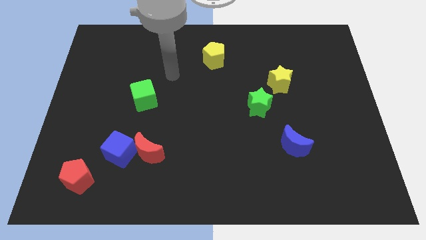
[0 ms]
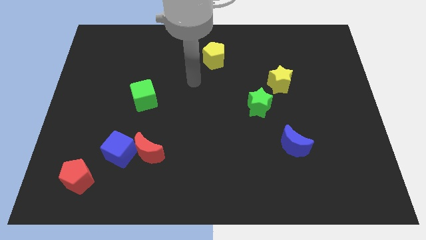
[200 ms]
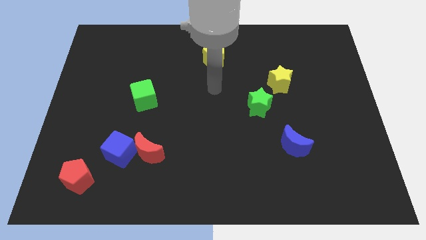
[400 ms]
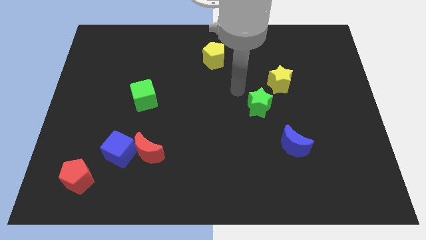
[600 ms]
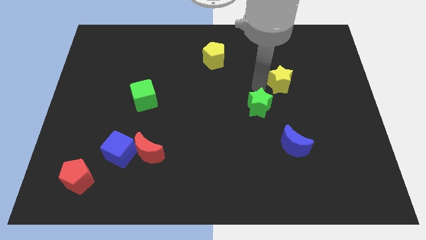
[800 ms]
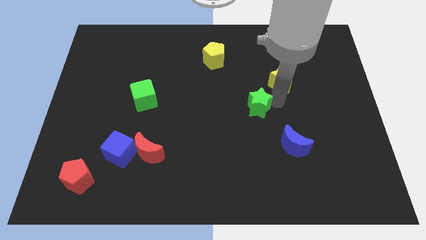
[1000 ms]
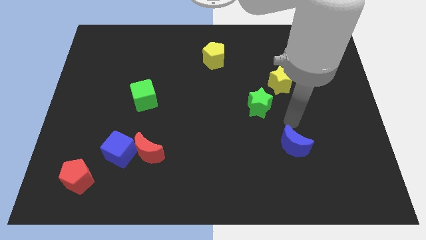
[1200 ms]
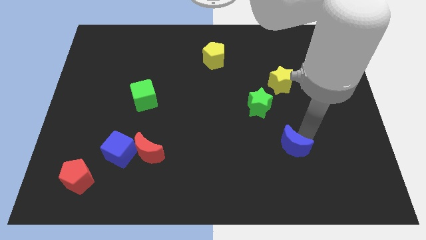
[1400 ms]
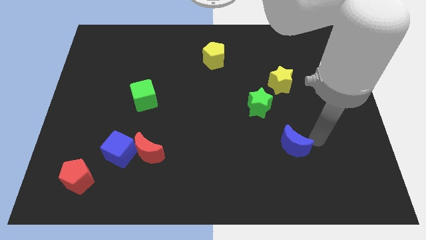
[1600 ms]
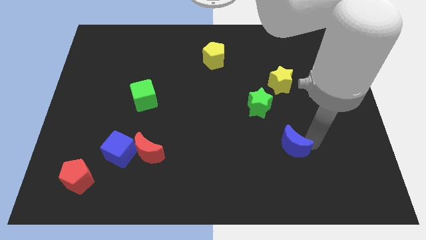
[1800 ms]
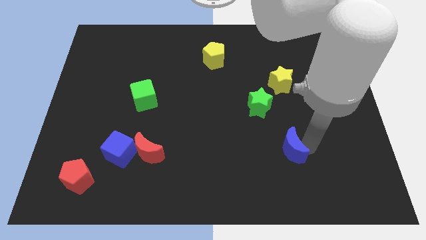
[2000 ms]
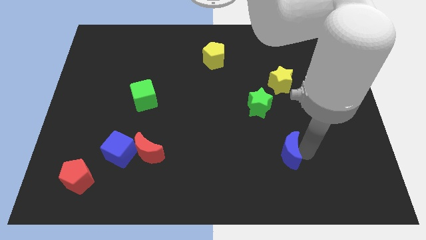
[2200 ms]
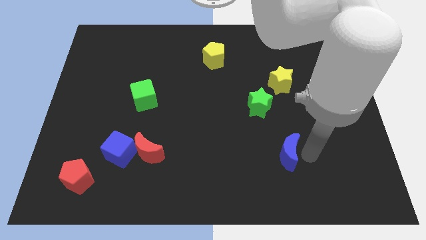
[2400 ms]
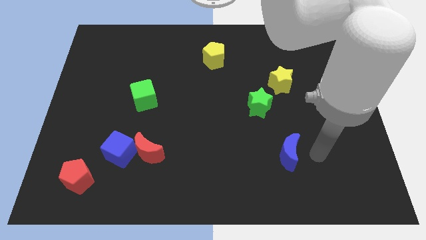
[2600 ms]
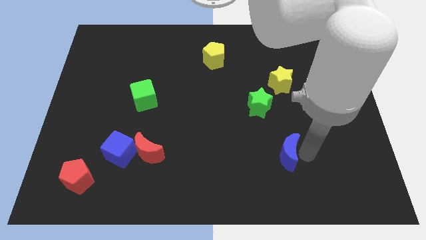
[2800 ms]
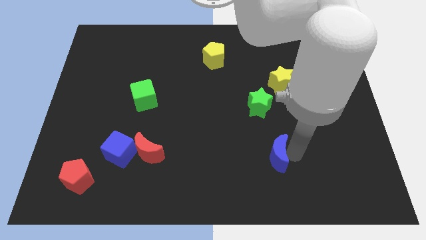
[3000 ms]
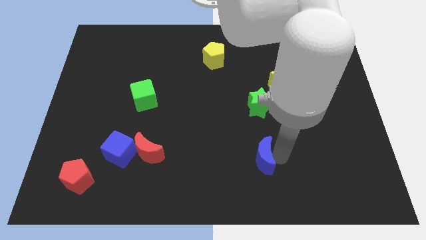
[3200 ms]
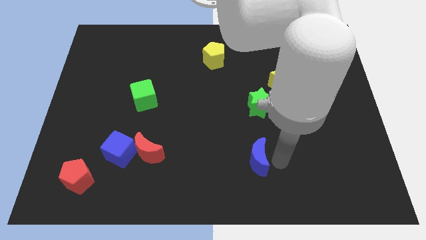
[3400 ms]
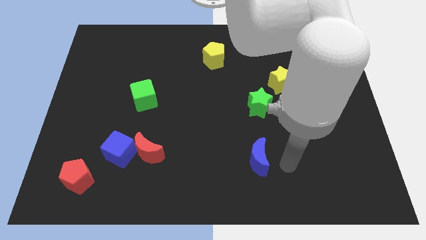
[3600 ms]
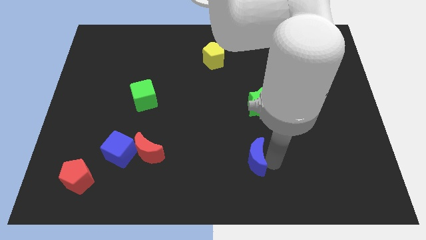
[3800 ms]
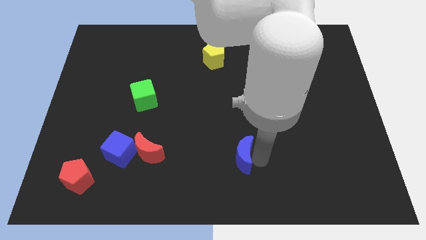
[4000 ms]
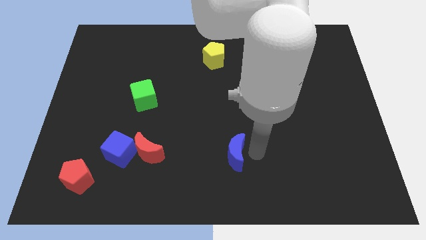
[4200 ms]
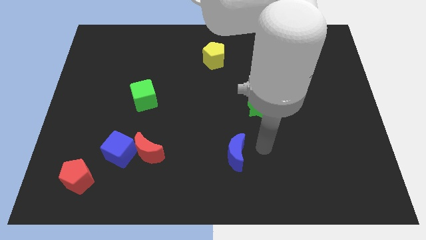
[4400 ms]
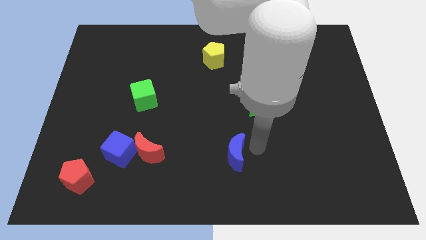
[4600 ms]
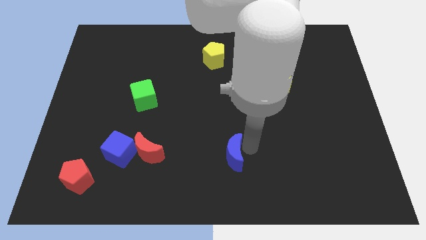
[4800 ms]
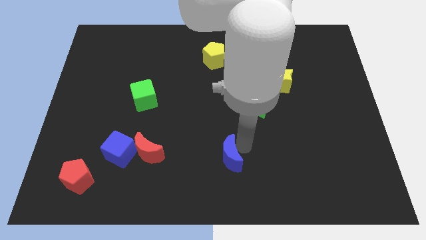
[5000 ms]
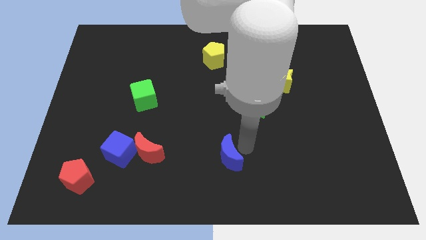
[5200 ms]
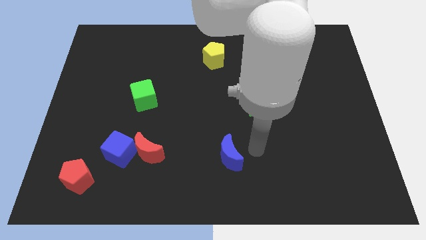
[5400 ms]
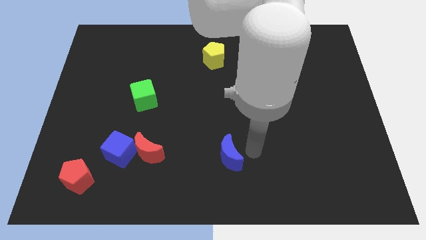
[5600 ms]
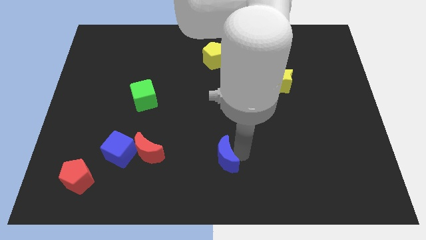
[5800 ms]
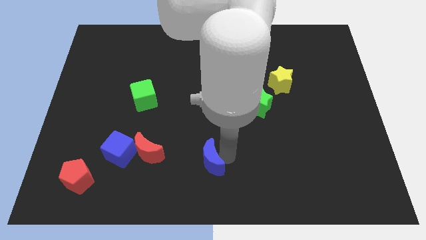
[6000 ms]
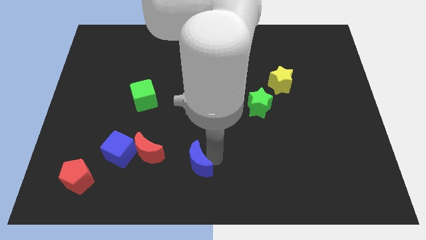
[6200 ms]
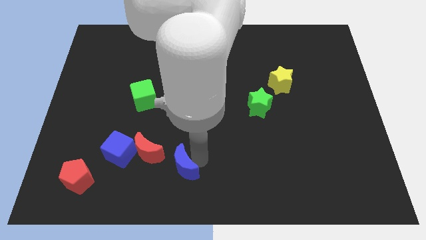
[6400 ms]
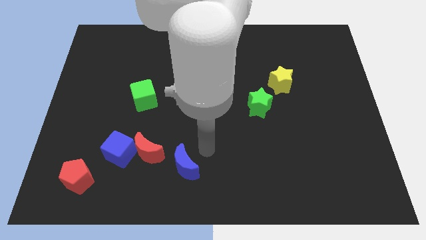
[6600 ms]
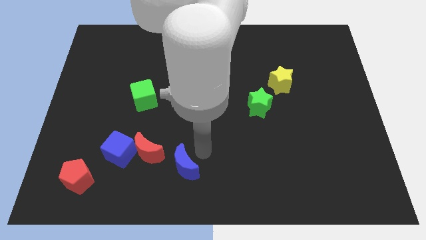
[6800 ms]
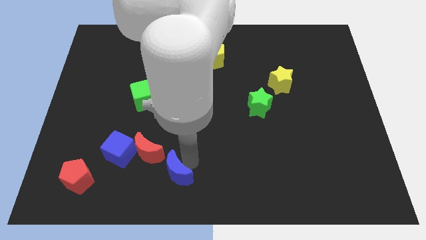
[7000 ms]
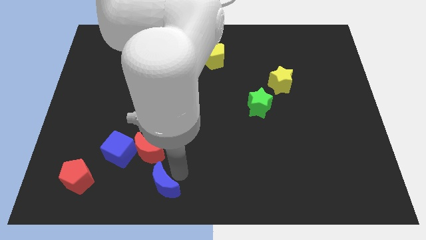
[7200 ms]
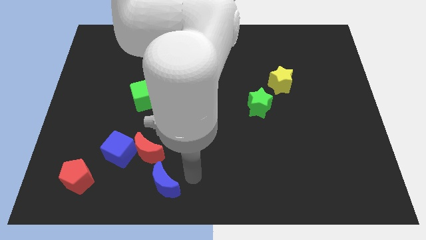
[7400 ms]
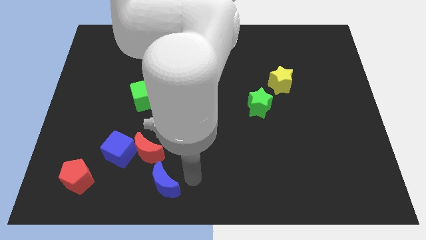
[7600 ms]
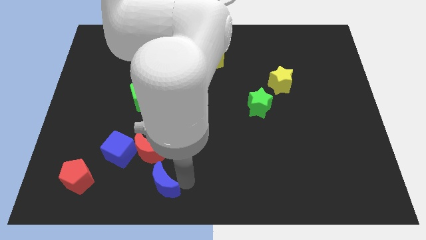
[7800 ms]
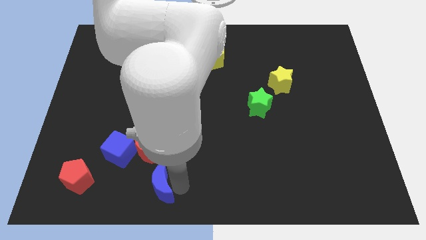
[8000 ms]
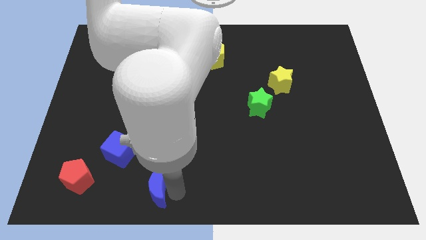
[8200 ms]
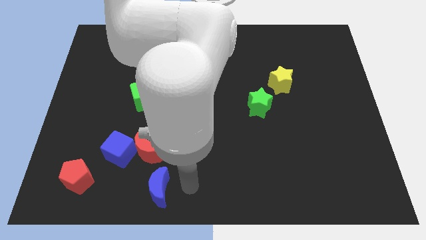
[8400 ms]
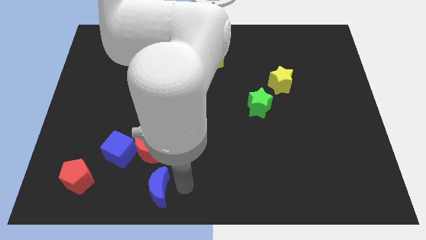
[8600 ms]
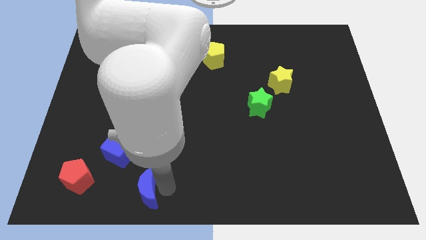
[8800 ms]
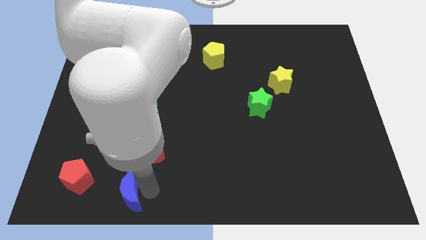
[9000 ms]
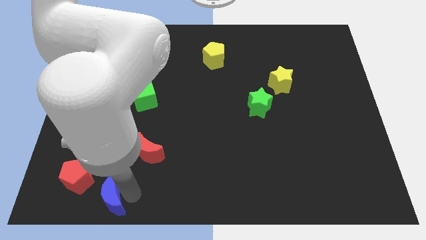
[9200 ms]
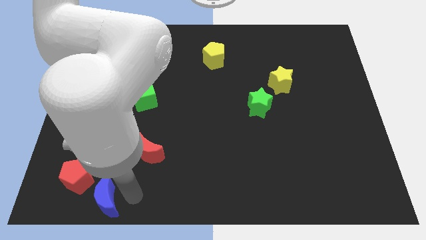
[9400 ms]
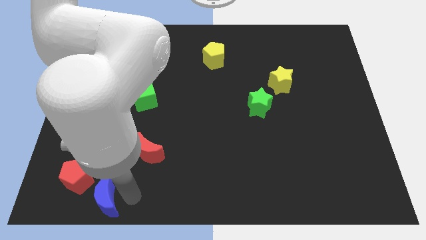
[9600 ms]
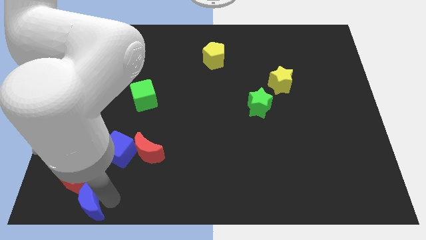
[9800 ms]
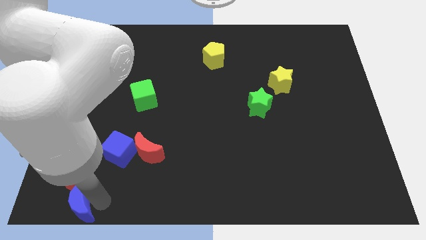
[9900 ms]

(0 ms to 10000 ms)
slide the blue moon to the bottom left

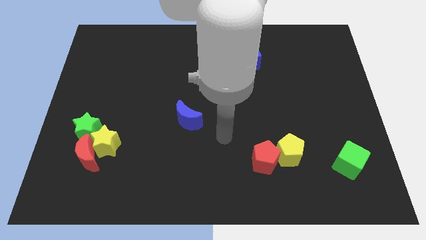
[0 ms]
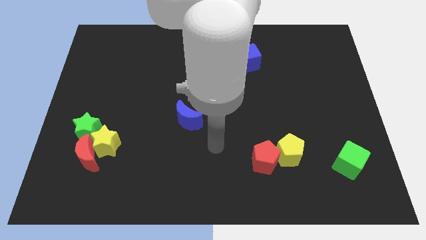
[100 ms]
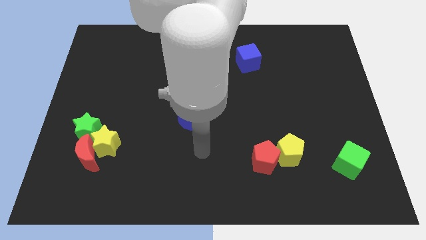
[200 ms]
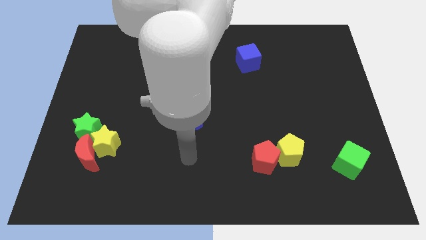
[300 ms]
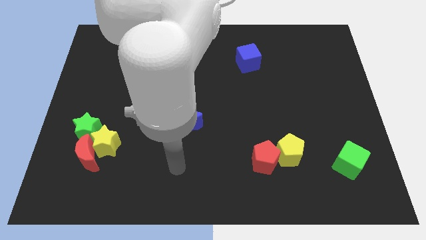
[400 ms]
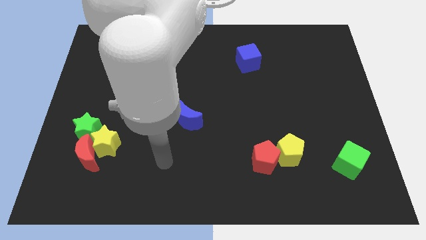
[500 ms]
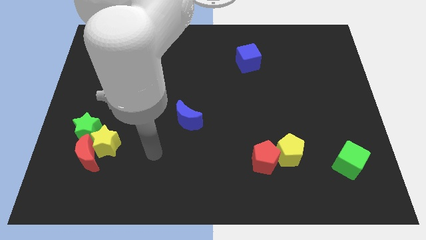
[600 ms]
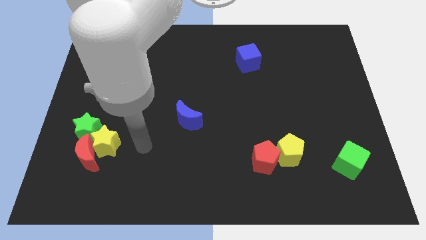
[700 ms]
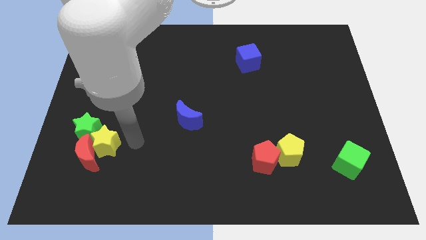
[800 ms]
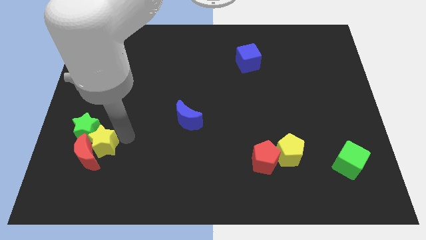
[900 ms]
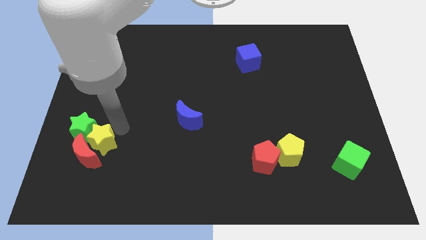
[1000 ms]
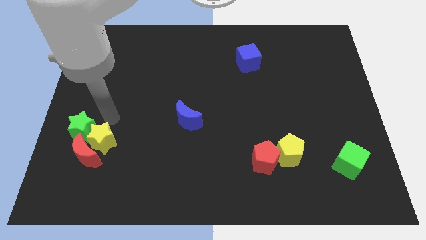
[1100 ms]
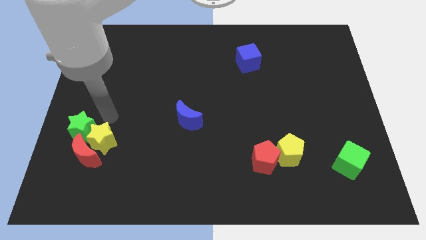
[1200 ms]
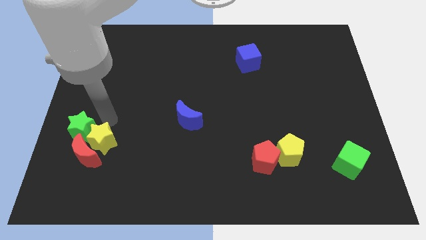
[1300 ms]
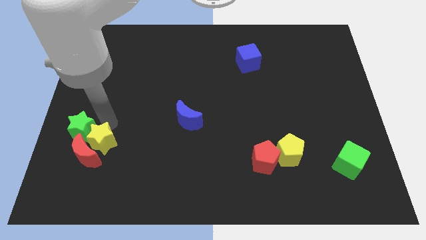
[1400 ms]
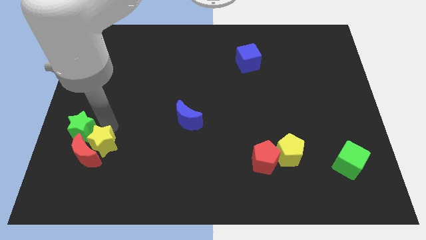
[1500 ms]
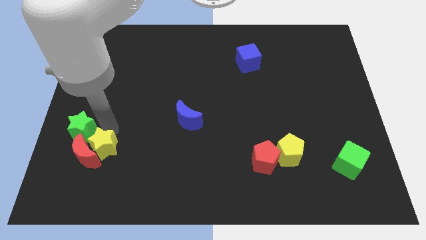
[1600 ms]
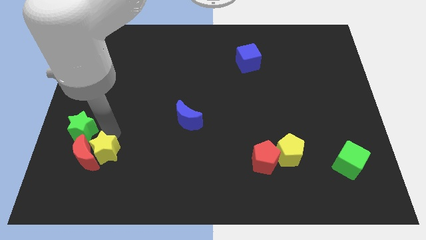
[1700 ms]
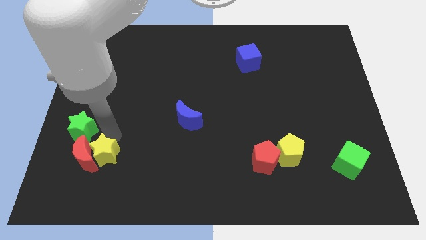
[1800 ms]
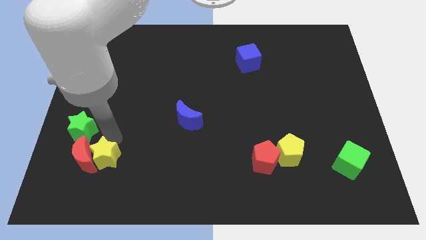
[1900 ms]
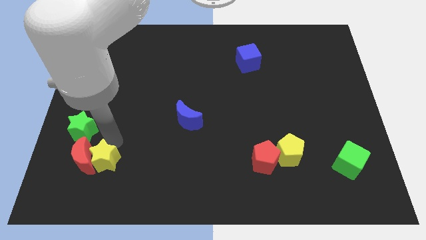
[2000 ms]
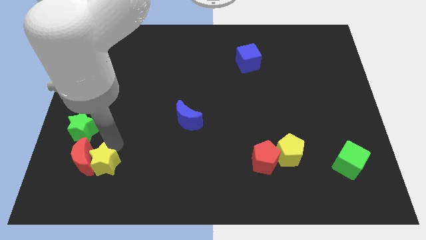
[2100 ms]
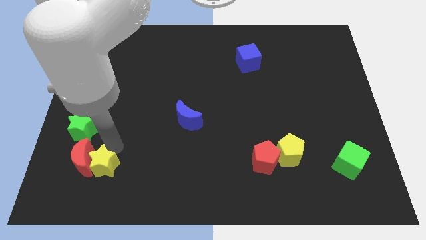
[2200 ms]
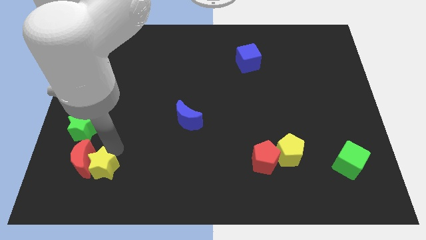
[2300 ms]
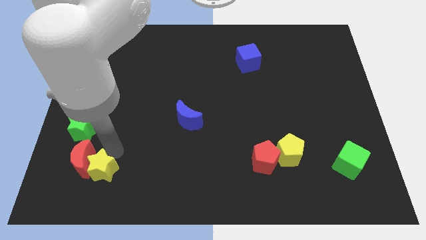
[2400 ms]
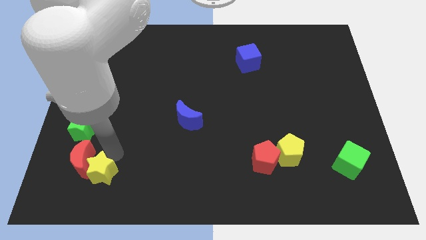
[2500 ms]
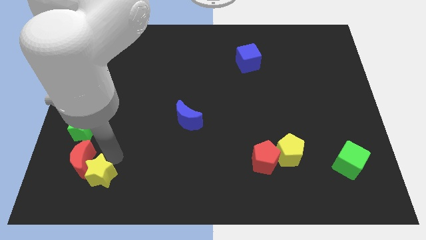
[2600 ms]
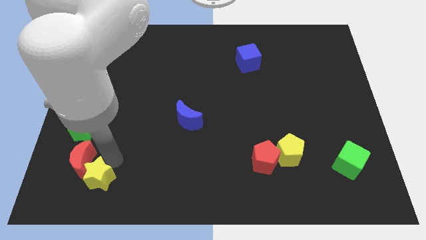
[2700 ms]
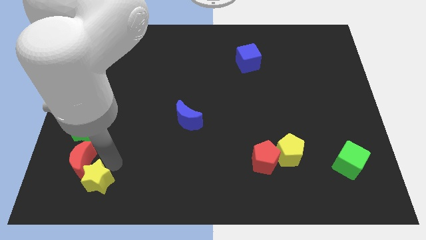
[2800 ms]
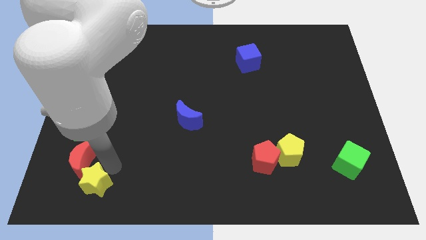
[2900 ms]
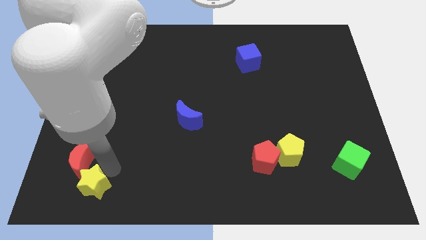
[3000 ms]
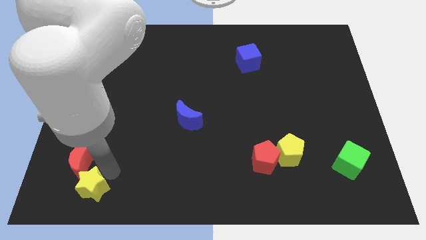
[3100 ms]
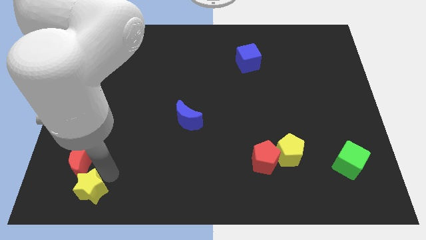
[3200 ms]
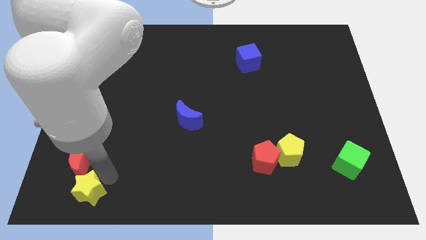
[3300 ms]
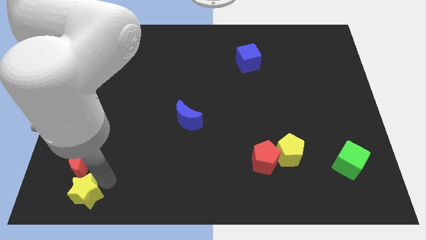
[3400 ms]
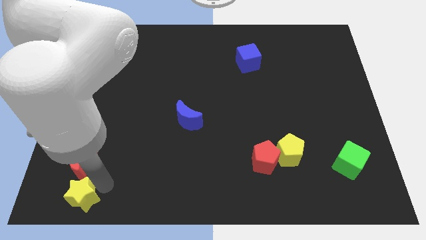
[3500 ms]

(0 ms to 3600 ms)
push the yellow star to the bottom left of the board
